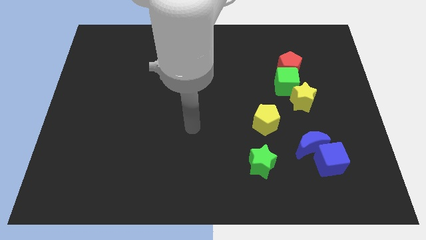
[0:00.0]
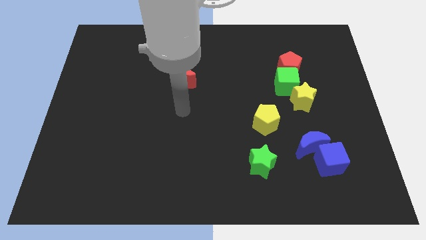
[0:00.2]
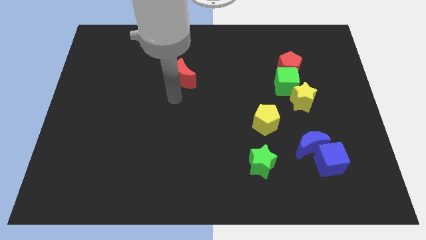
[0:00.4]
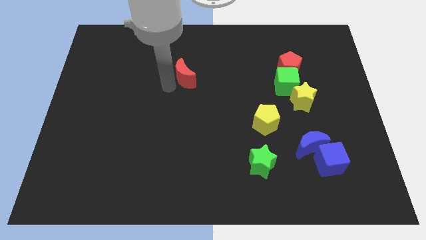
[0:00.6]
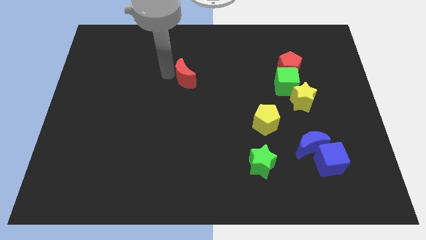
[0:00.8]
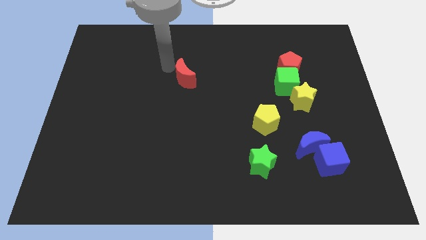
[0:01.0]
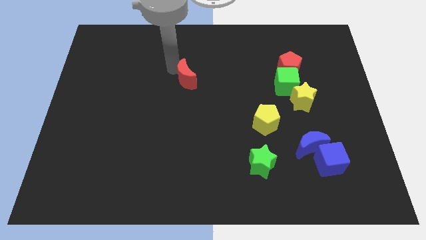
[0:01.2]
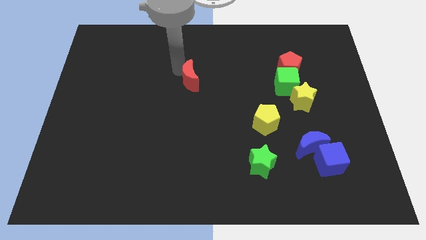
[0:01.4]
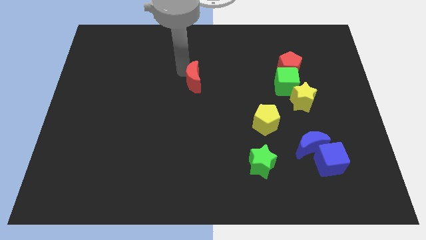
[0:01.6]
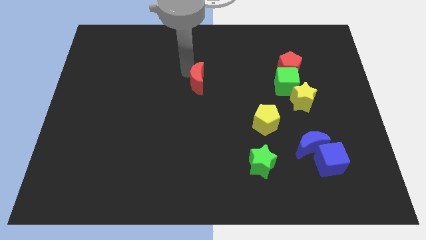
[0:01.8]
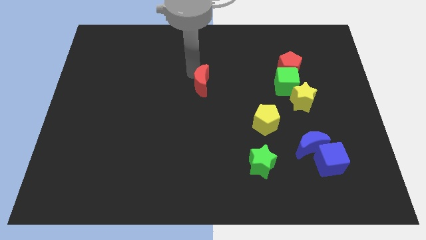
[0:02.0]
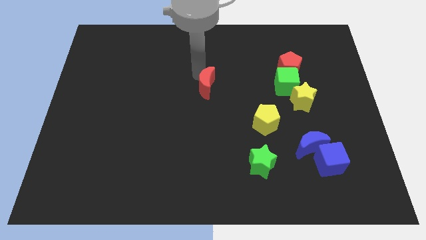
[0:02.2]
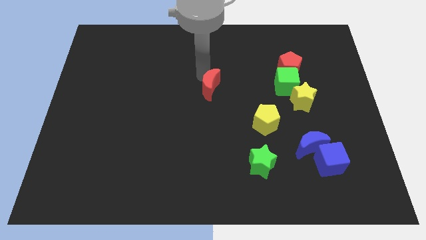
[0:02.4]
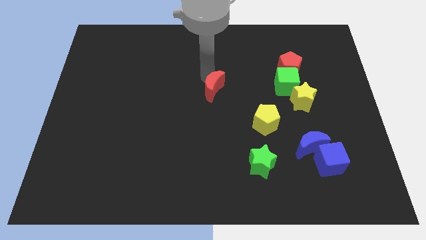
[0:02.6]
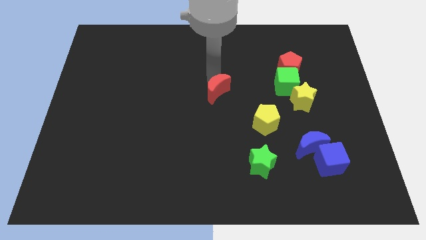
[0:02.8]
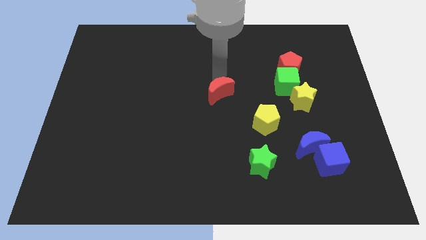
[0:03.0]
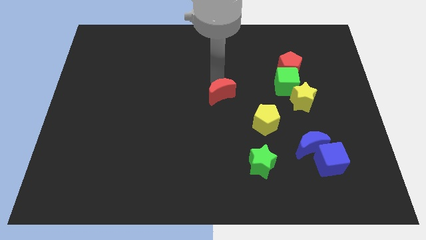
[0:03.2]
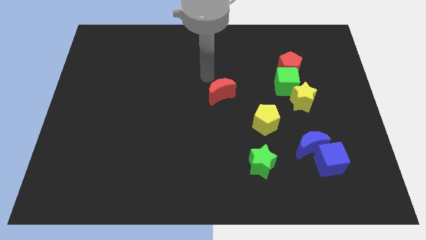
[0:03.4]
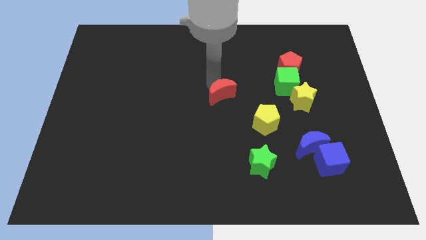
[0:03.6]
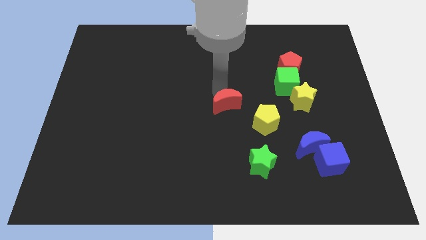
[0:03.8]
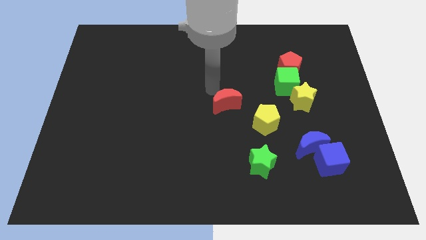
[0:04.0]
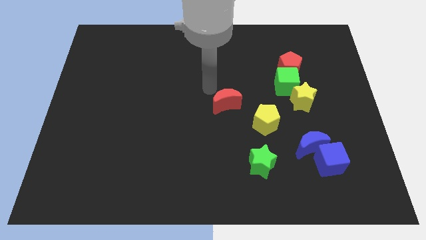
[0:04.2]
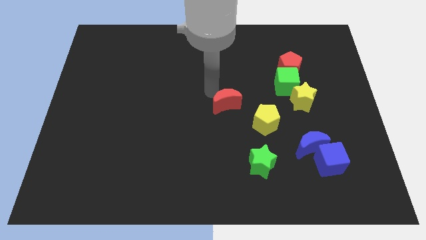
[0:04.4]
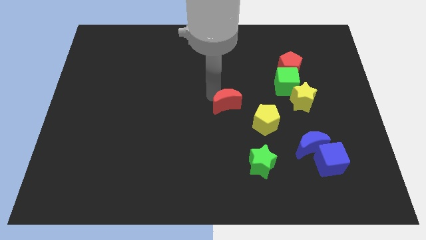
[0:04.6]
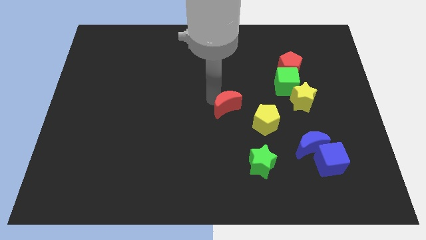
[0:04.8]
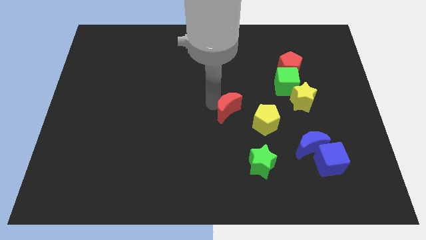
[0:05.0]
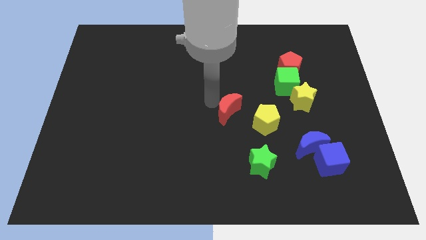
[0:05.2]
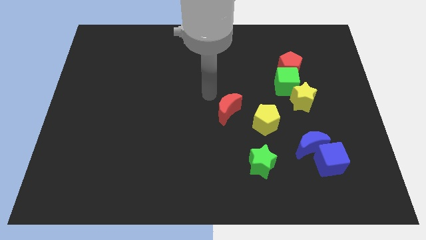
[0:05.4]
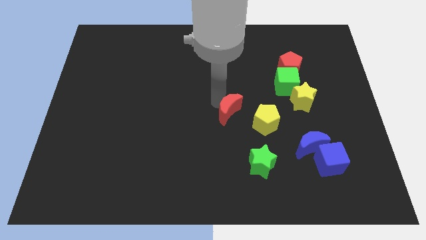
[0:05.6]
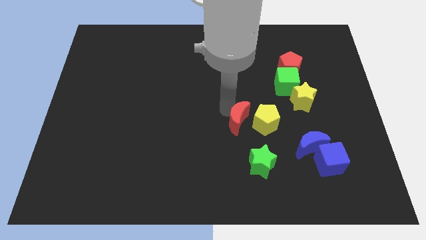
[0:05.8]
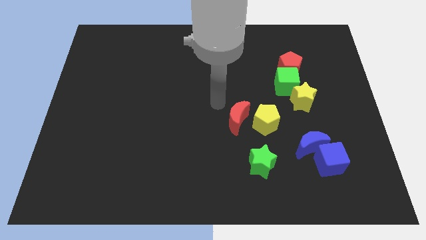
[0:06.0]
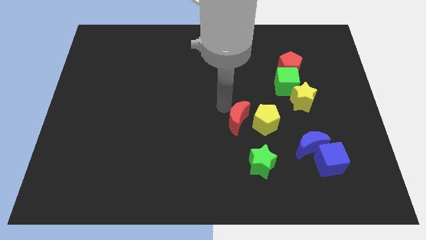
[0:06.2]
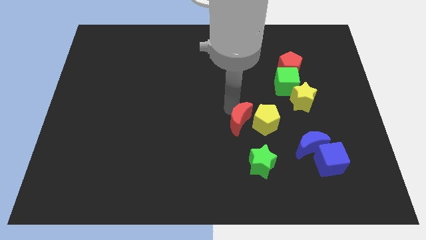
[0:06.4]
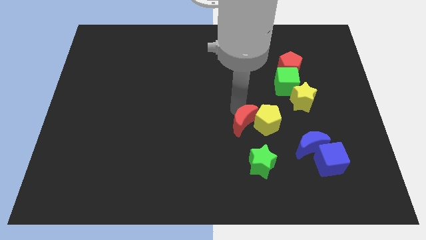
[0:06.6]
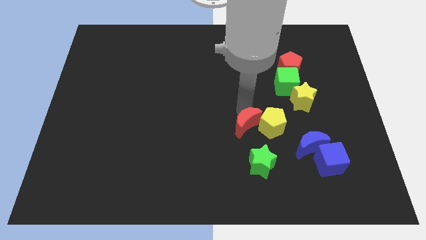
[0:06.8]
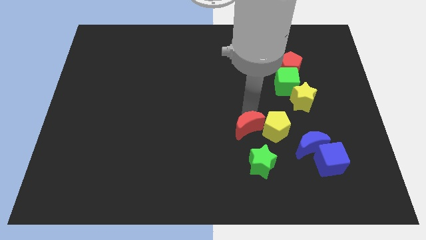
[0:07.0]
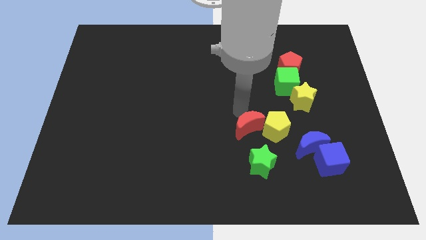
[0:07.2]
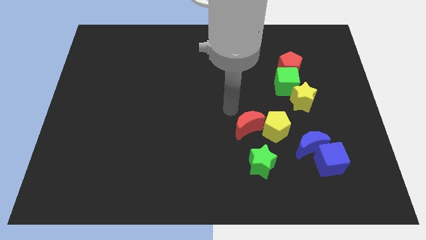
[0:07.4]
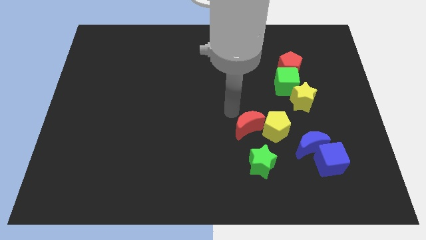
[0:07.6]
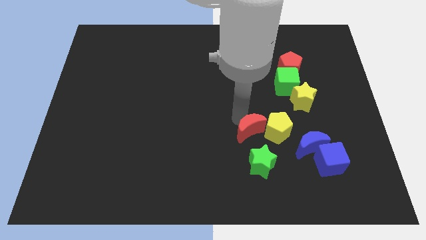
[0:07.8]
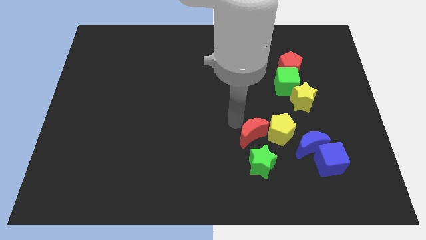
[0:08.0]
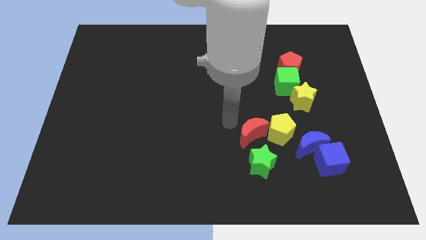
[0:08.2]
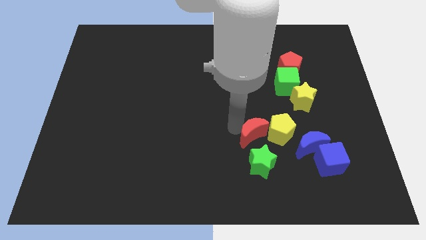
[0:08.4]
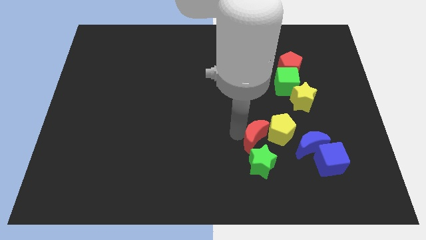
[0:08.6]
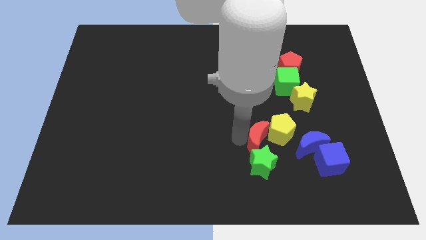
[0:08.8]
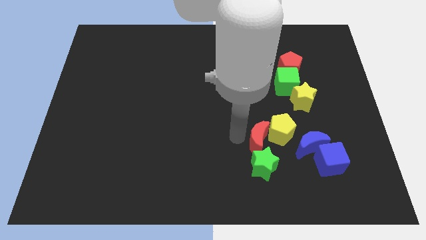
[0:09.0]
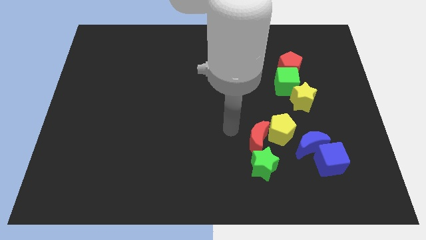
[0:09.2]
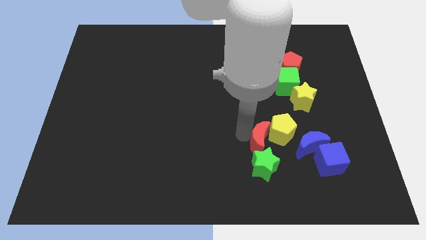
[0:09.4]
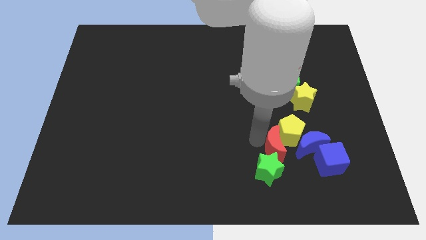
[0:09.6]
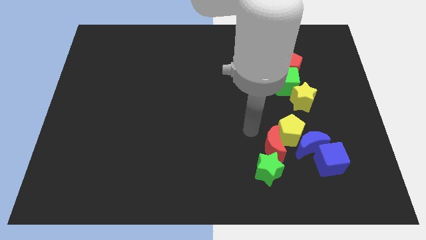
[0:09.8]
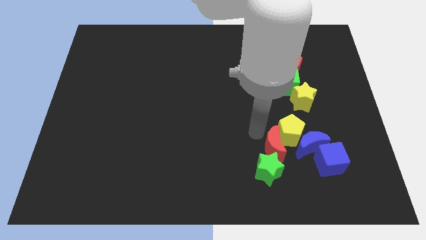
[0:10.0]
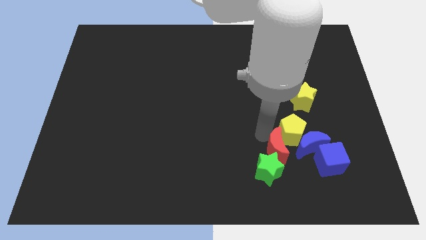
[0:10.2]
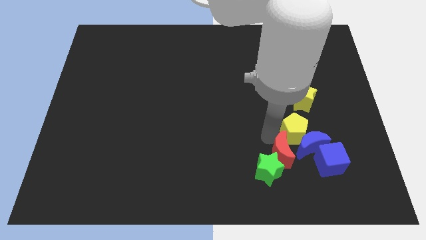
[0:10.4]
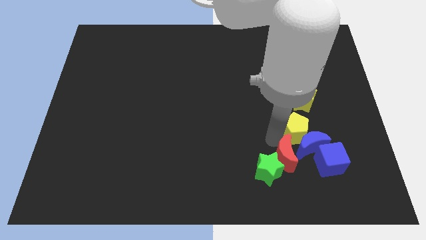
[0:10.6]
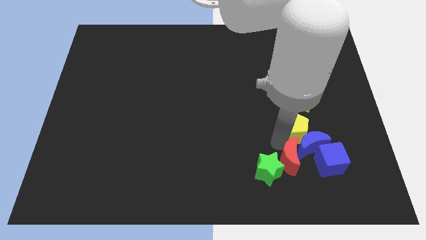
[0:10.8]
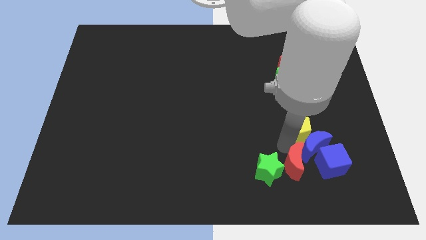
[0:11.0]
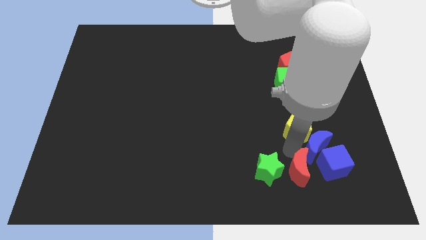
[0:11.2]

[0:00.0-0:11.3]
push the red moon to the bottom left side of the blue cube

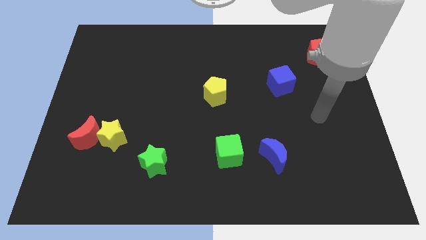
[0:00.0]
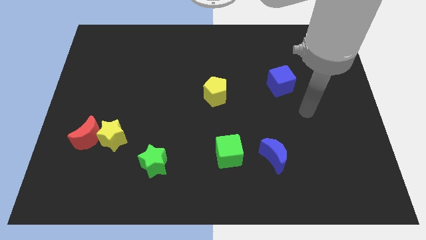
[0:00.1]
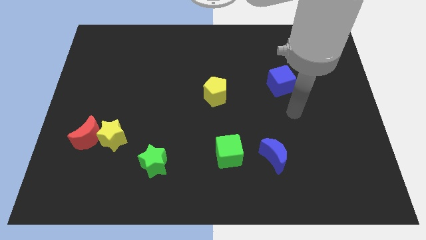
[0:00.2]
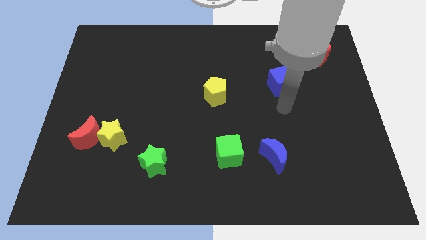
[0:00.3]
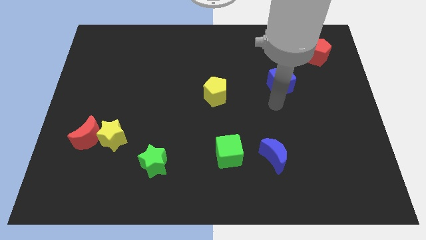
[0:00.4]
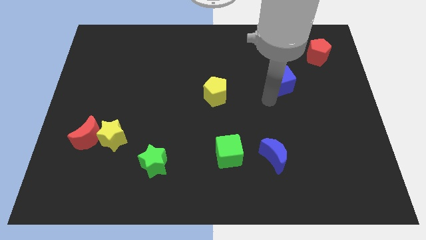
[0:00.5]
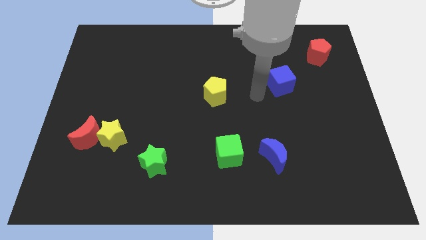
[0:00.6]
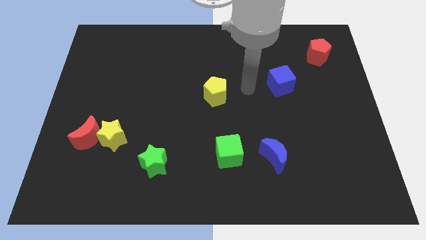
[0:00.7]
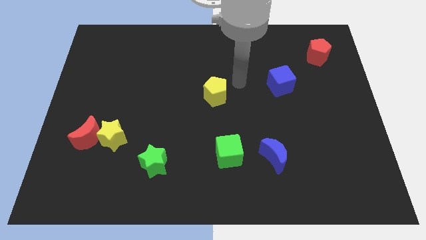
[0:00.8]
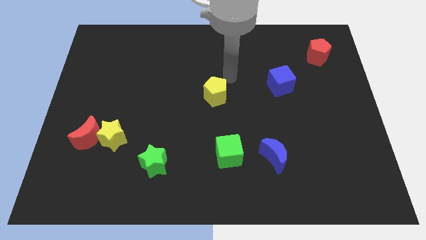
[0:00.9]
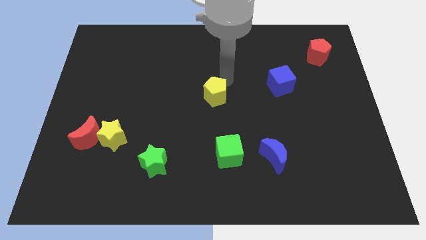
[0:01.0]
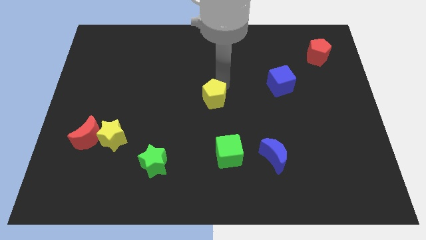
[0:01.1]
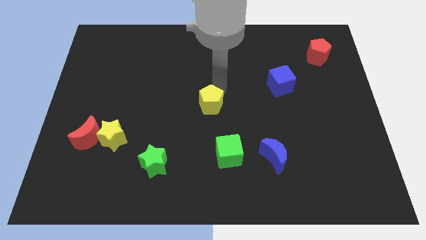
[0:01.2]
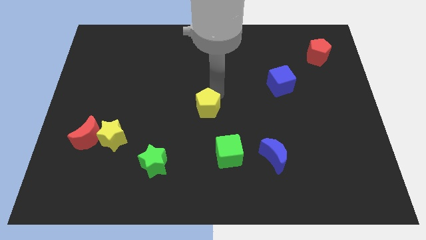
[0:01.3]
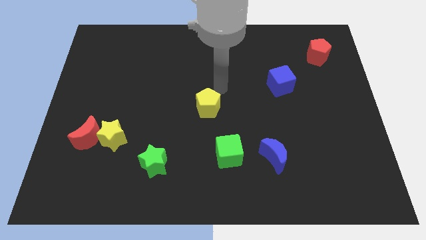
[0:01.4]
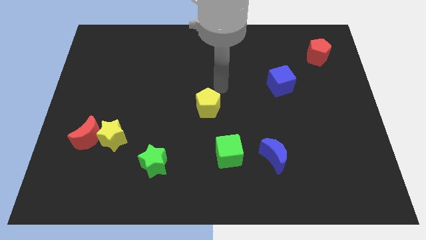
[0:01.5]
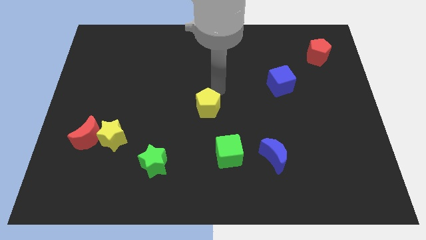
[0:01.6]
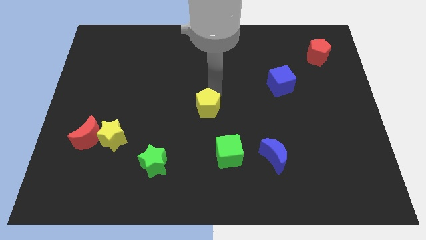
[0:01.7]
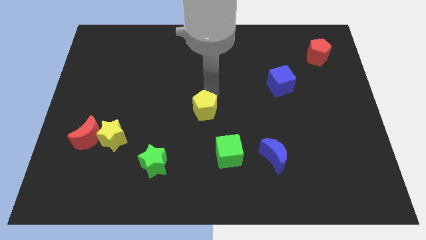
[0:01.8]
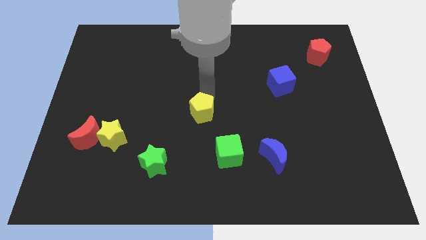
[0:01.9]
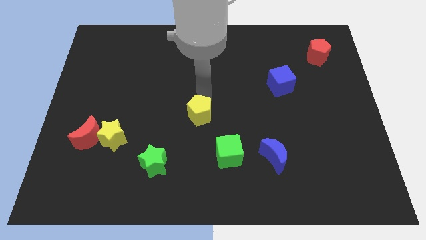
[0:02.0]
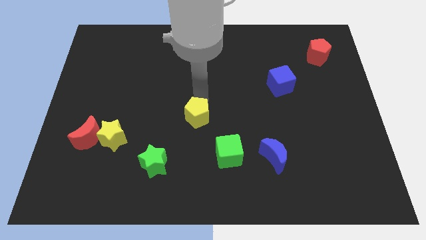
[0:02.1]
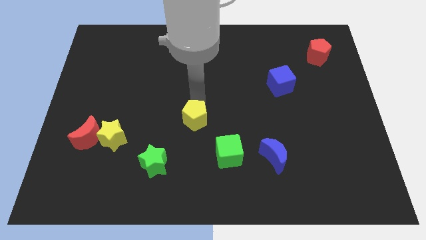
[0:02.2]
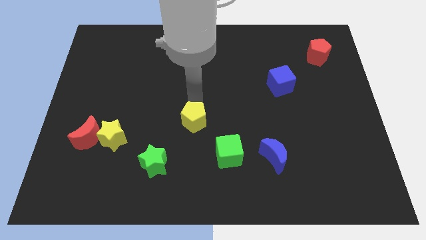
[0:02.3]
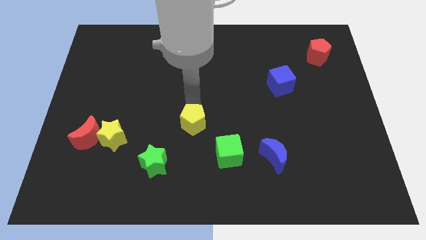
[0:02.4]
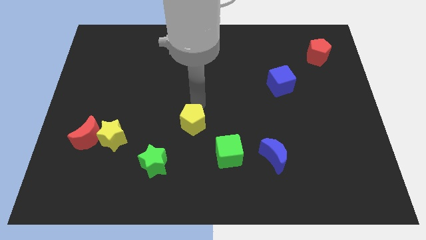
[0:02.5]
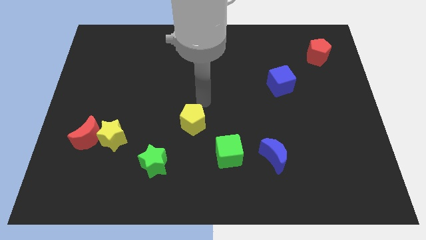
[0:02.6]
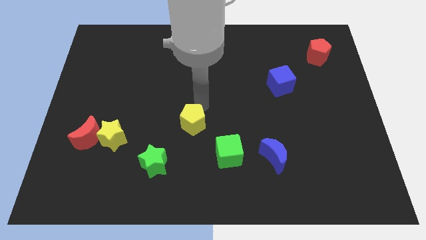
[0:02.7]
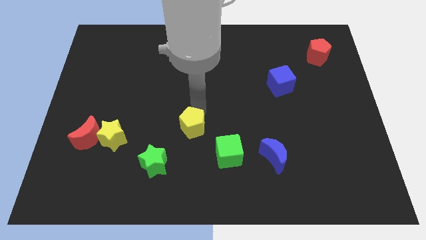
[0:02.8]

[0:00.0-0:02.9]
move the yellow pentagon to the top right of the green star
